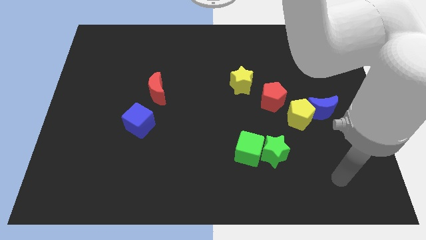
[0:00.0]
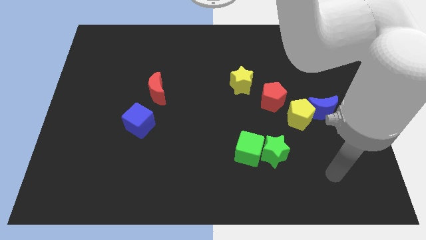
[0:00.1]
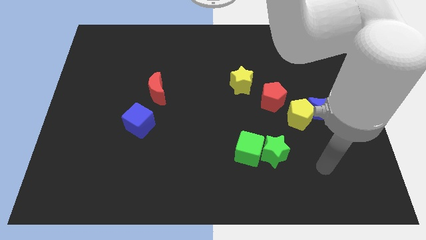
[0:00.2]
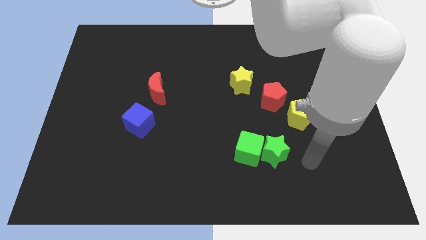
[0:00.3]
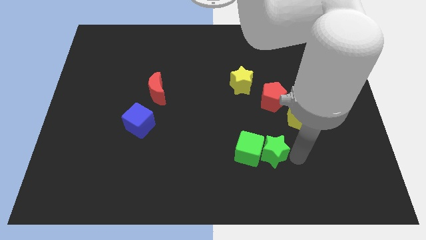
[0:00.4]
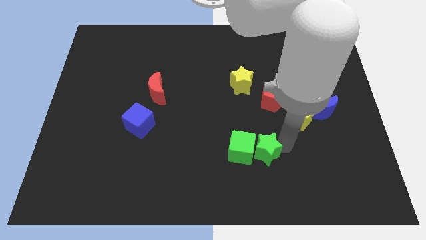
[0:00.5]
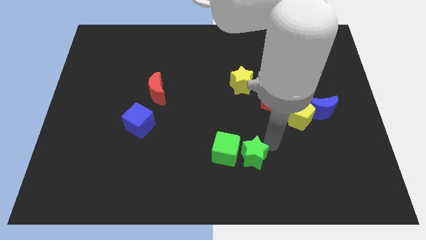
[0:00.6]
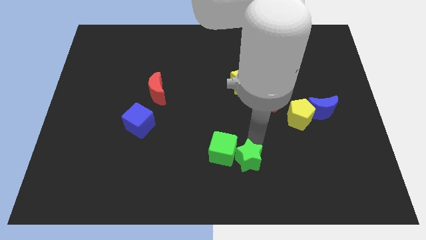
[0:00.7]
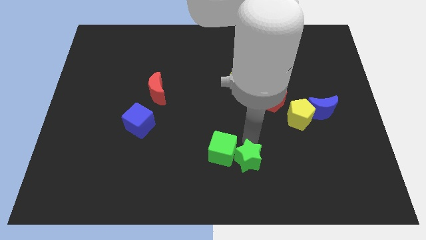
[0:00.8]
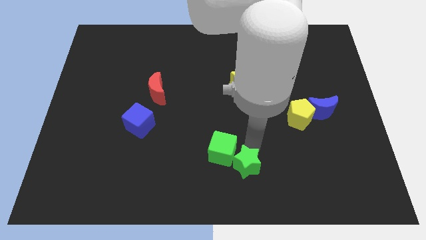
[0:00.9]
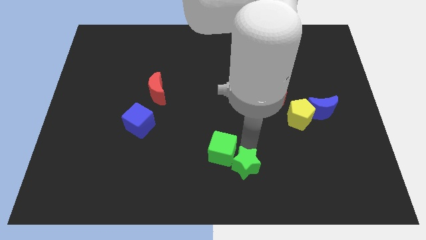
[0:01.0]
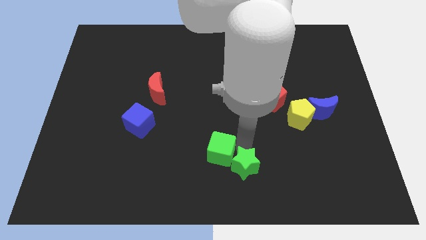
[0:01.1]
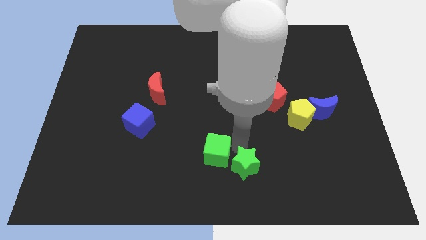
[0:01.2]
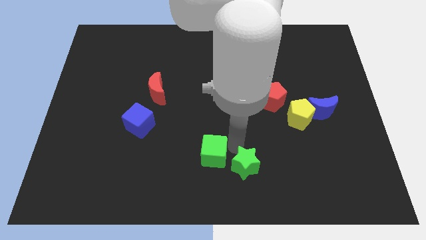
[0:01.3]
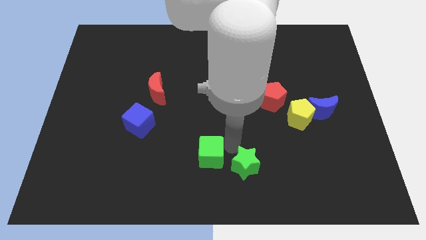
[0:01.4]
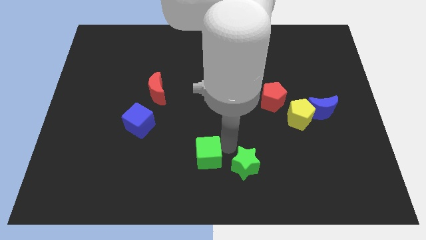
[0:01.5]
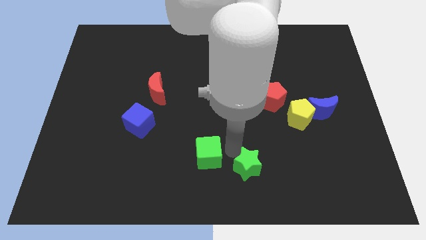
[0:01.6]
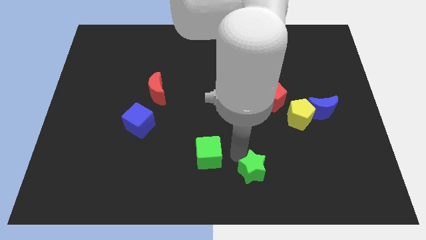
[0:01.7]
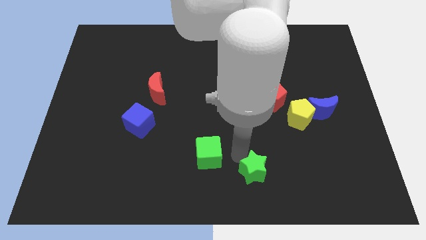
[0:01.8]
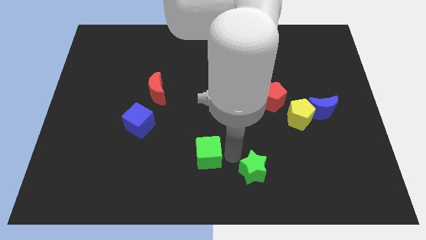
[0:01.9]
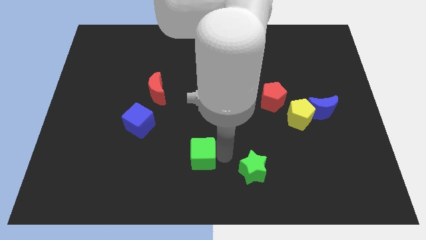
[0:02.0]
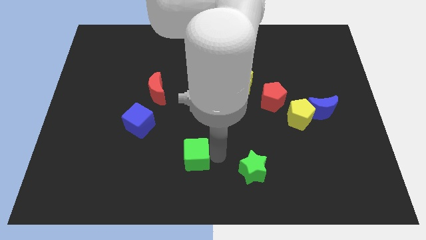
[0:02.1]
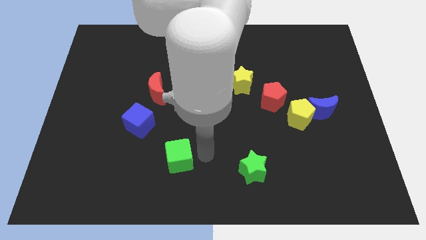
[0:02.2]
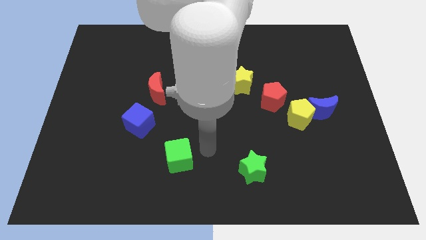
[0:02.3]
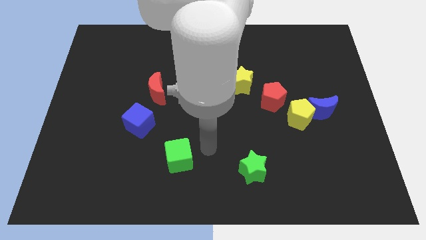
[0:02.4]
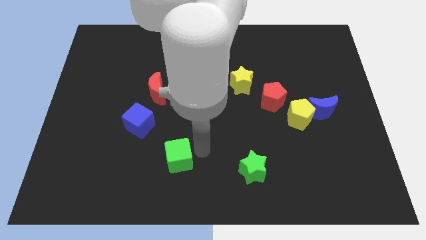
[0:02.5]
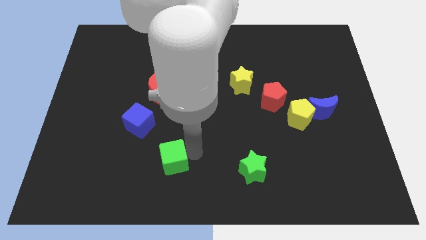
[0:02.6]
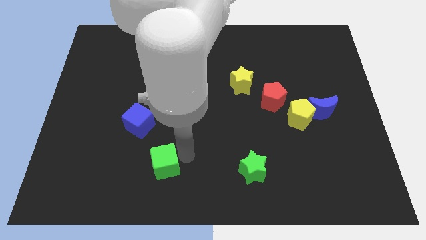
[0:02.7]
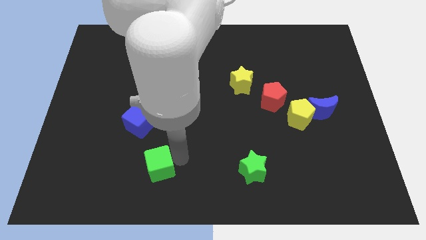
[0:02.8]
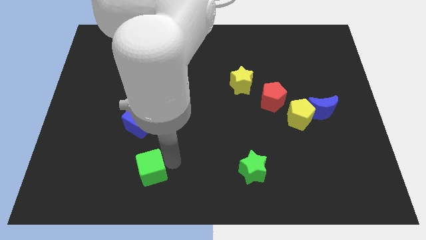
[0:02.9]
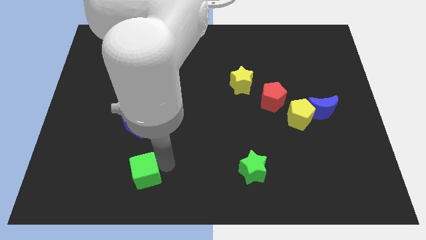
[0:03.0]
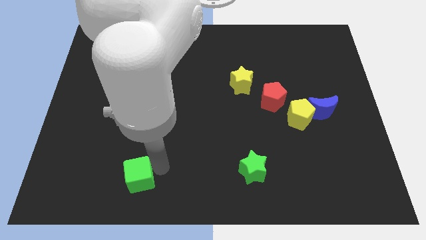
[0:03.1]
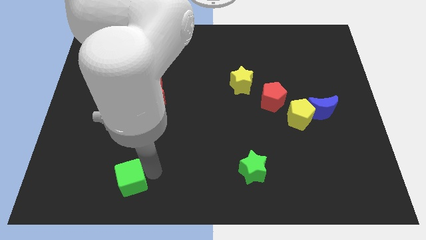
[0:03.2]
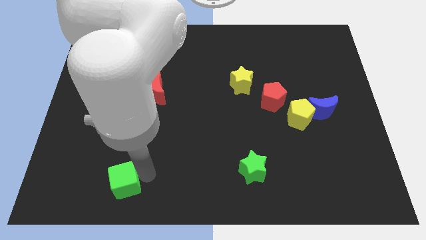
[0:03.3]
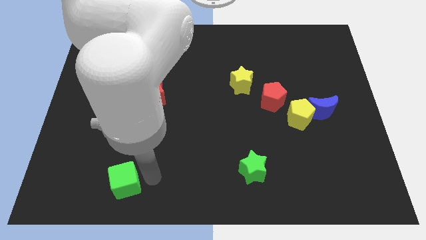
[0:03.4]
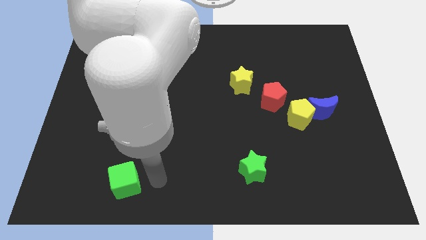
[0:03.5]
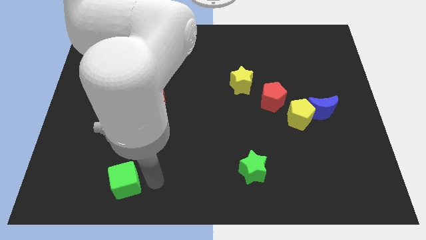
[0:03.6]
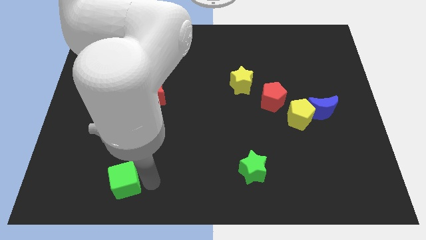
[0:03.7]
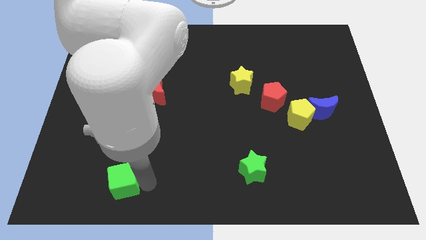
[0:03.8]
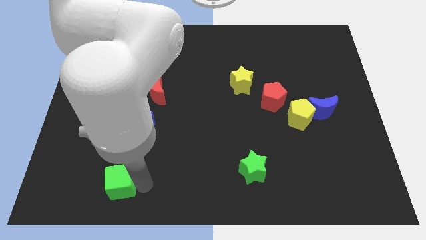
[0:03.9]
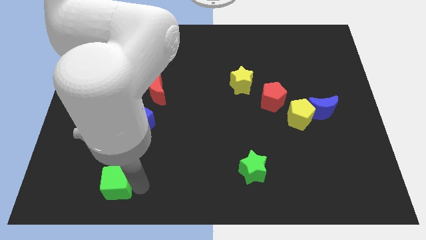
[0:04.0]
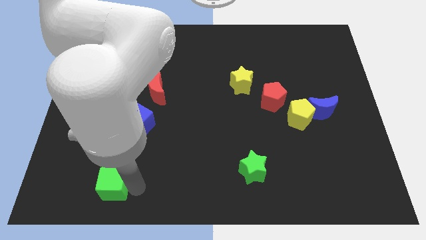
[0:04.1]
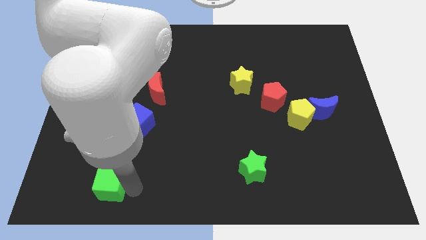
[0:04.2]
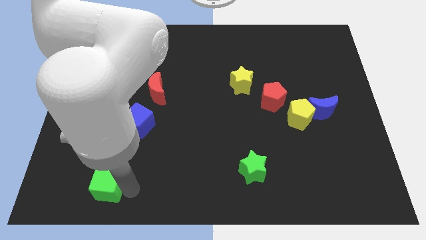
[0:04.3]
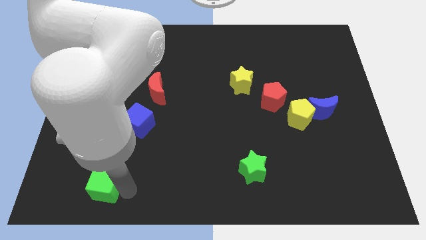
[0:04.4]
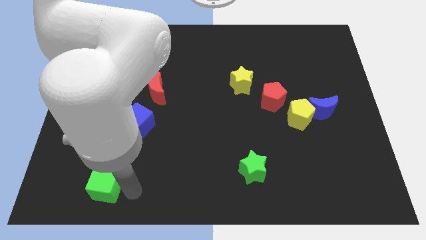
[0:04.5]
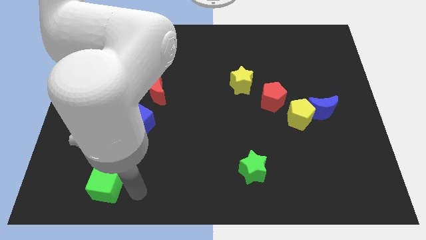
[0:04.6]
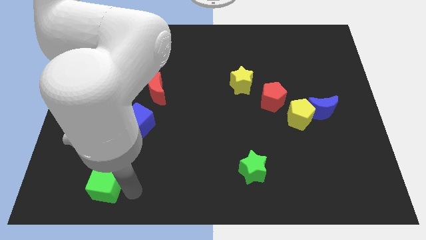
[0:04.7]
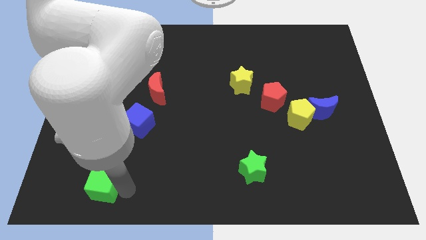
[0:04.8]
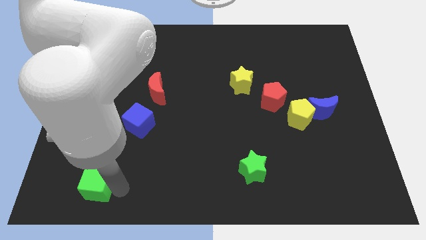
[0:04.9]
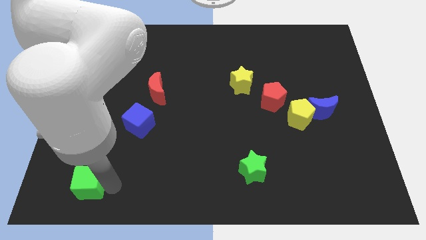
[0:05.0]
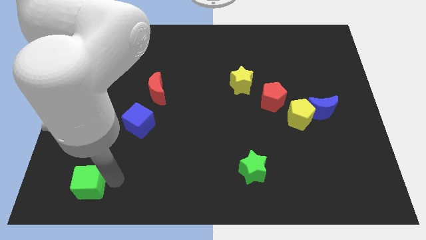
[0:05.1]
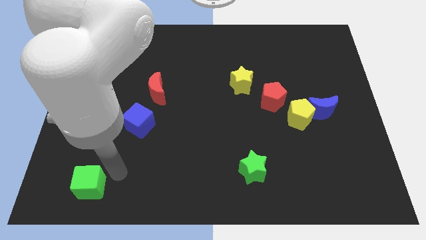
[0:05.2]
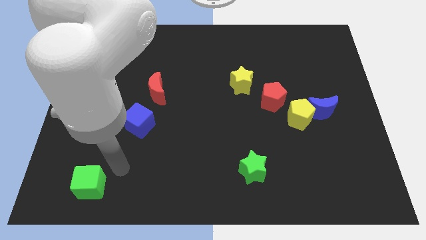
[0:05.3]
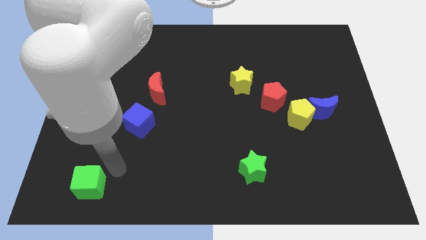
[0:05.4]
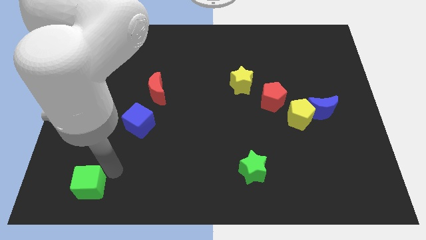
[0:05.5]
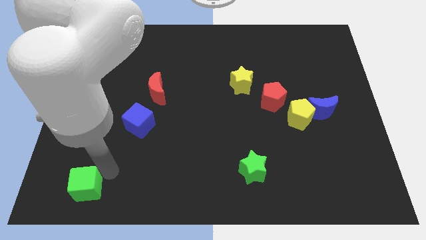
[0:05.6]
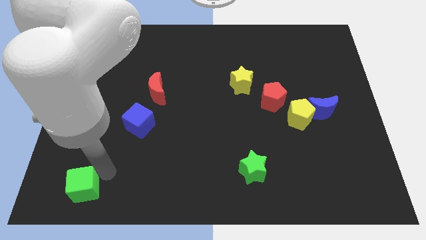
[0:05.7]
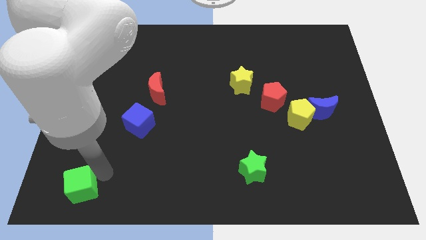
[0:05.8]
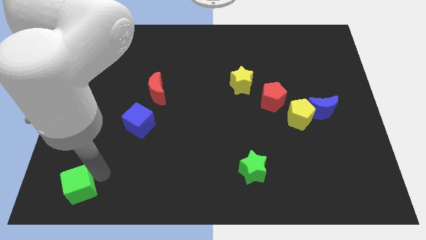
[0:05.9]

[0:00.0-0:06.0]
put the green cube to the bottom left
